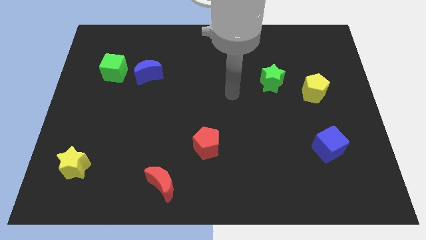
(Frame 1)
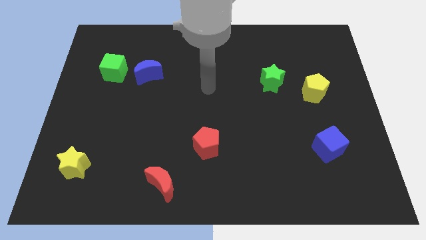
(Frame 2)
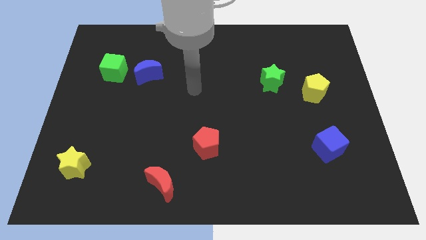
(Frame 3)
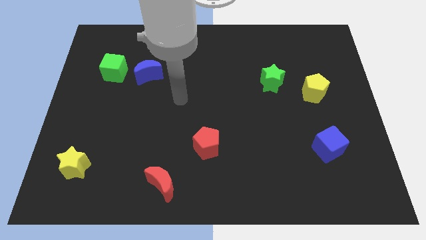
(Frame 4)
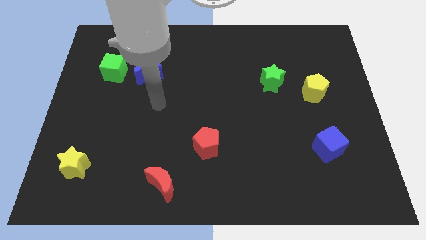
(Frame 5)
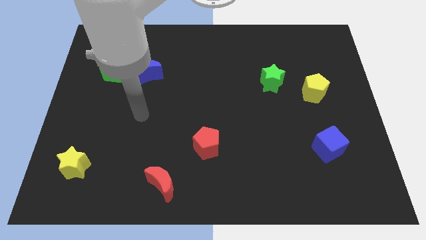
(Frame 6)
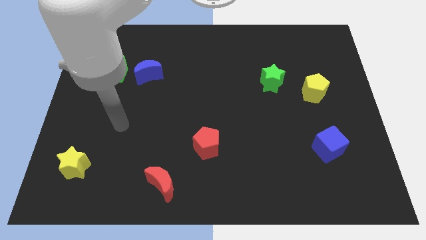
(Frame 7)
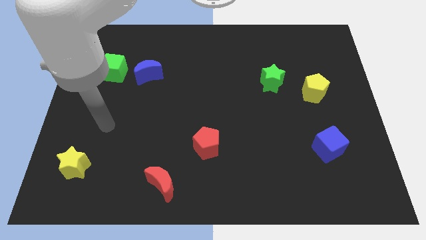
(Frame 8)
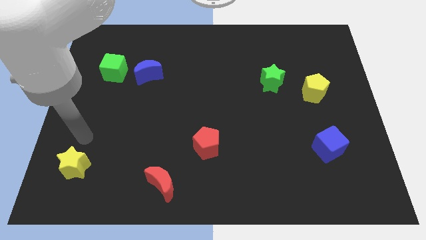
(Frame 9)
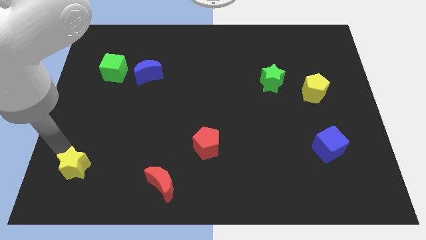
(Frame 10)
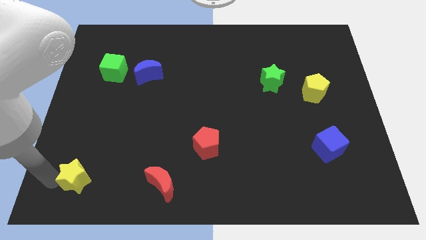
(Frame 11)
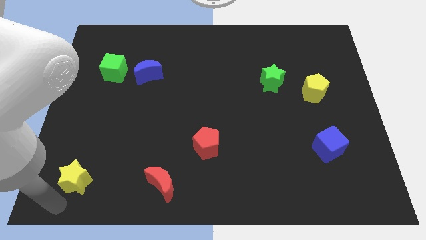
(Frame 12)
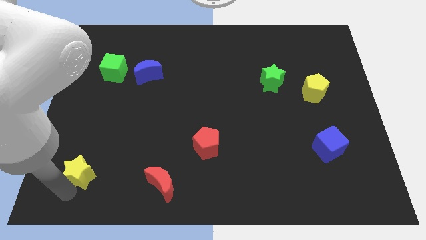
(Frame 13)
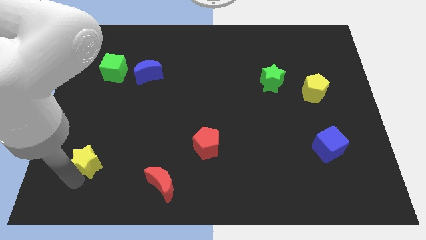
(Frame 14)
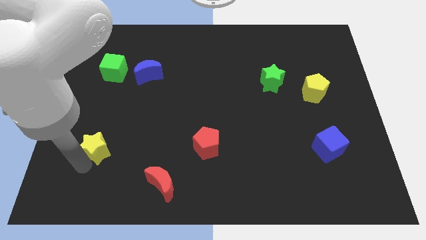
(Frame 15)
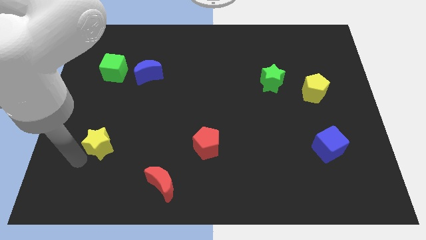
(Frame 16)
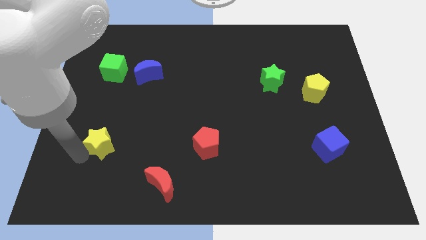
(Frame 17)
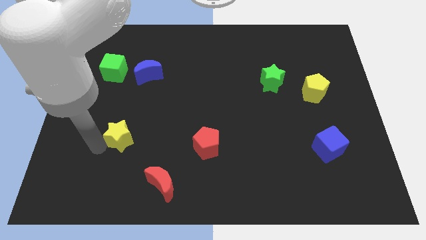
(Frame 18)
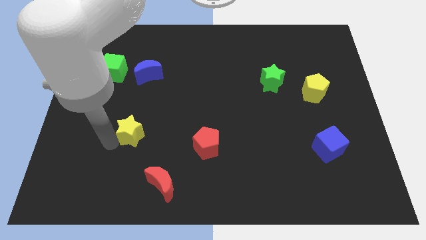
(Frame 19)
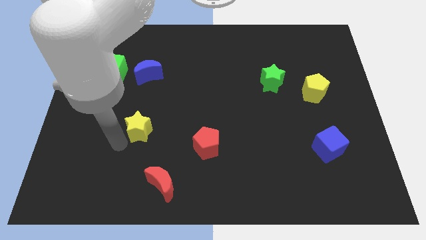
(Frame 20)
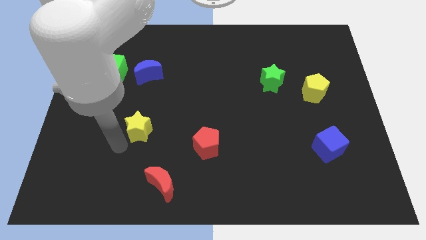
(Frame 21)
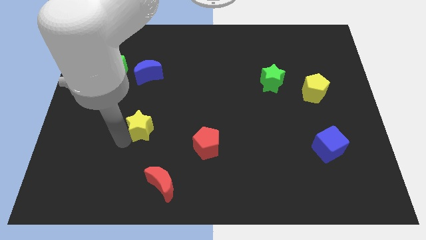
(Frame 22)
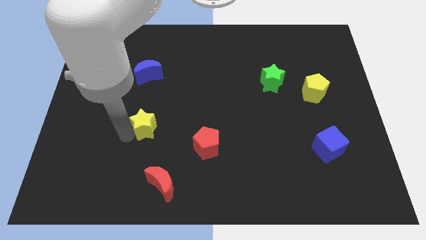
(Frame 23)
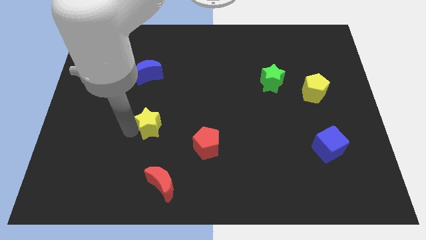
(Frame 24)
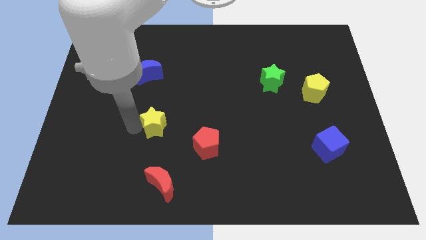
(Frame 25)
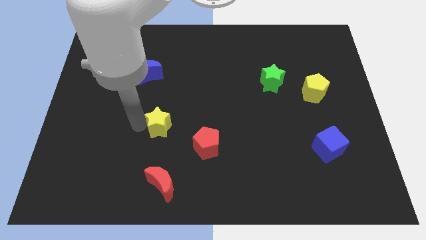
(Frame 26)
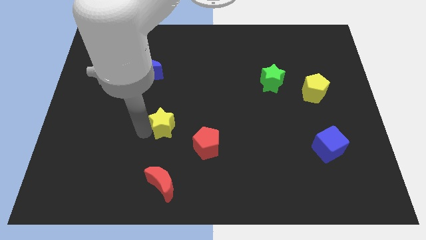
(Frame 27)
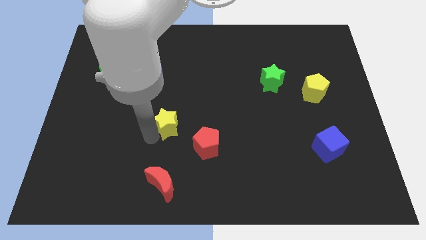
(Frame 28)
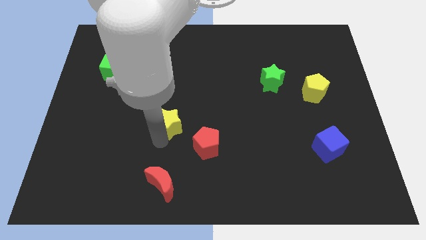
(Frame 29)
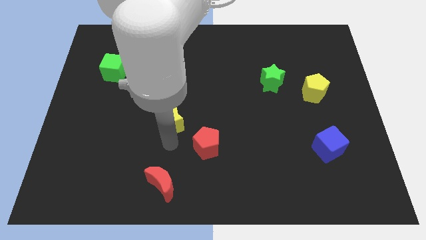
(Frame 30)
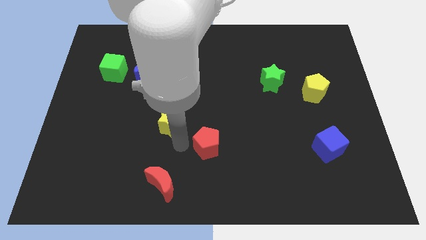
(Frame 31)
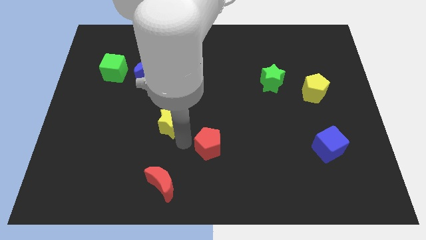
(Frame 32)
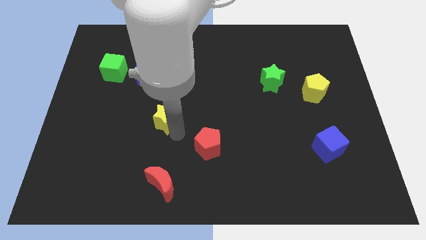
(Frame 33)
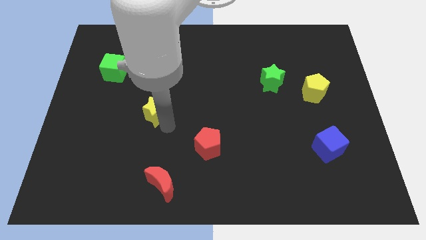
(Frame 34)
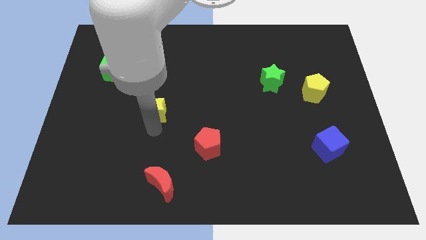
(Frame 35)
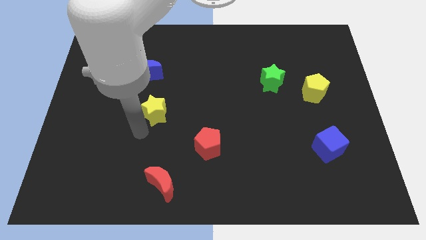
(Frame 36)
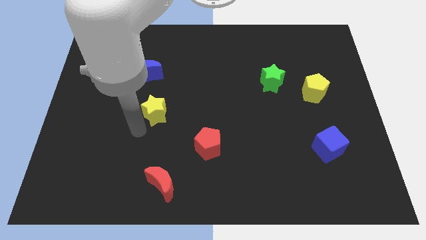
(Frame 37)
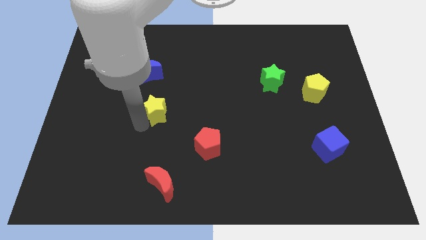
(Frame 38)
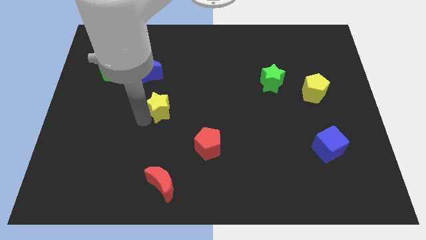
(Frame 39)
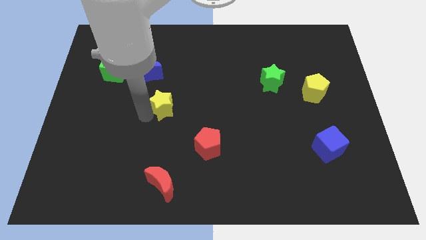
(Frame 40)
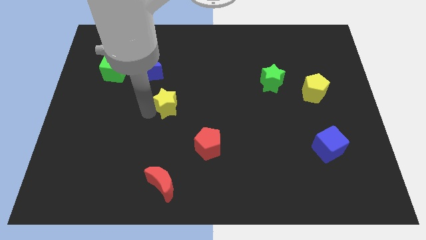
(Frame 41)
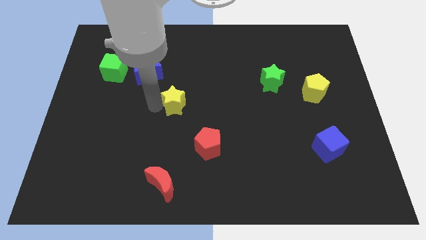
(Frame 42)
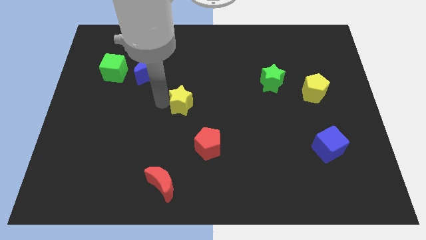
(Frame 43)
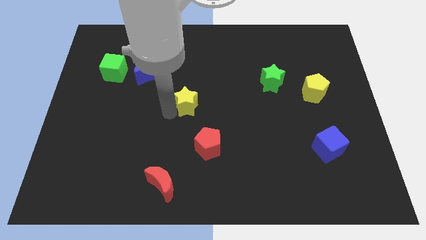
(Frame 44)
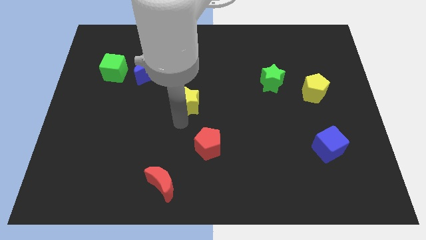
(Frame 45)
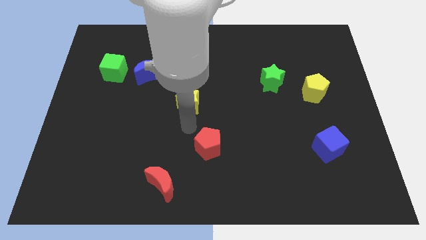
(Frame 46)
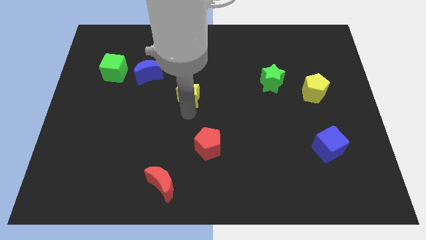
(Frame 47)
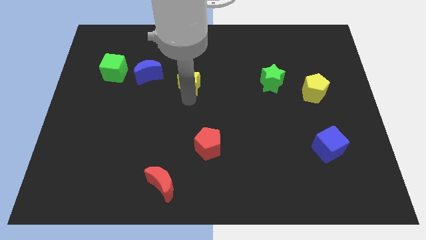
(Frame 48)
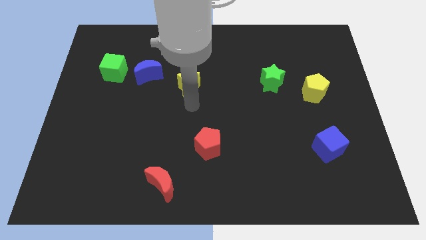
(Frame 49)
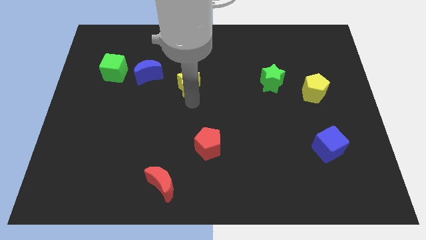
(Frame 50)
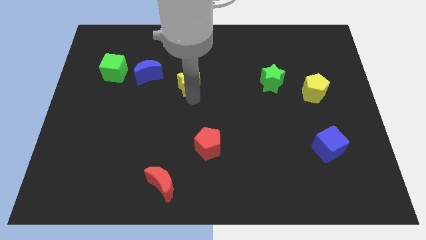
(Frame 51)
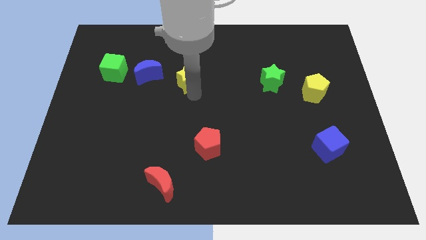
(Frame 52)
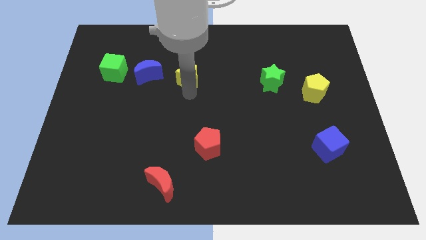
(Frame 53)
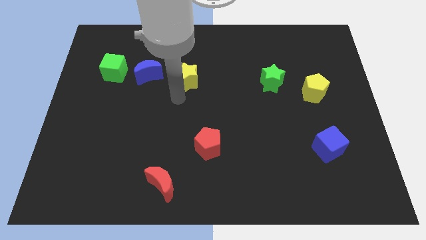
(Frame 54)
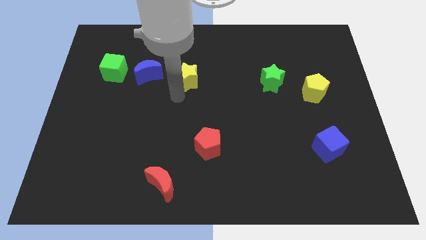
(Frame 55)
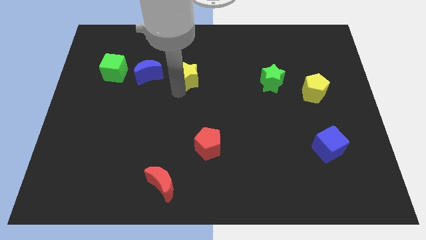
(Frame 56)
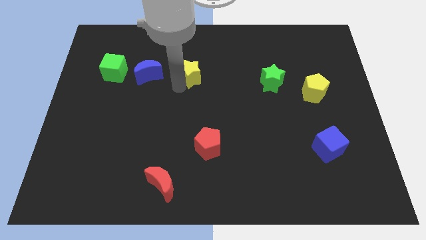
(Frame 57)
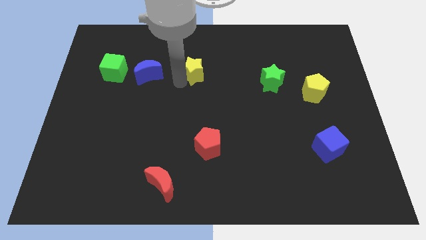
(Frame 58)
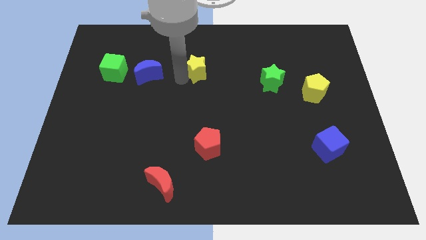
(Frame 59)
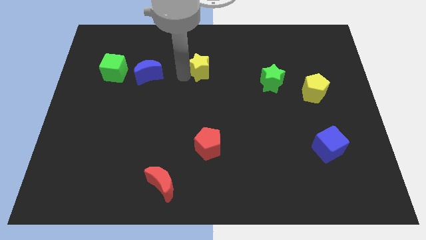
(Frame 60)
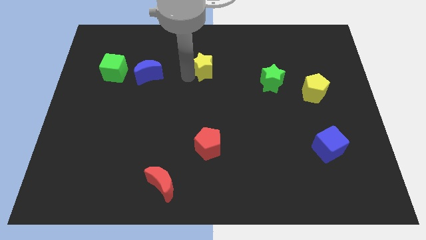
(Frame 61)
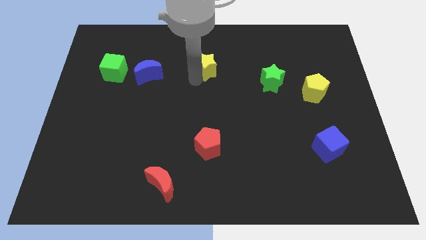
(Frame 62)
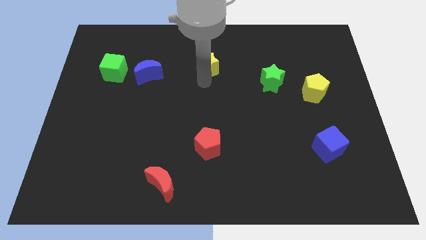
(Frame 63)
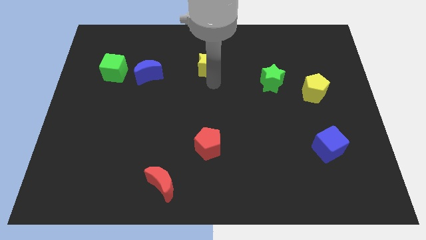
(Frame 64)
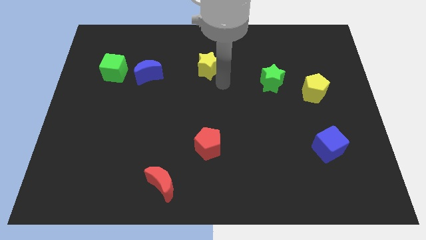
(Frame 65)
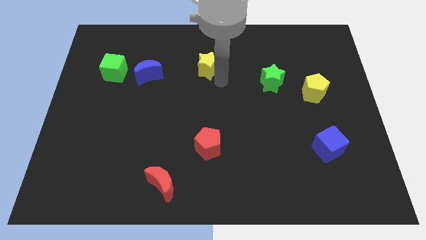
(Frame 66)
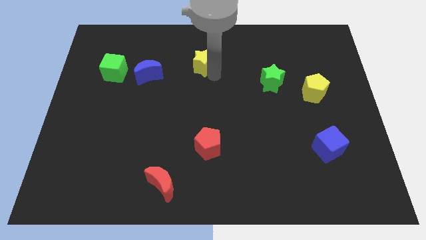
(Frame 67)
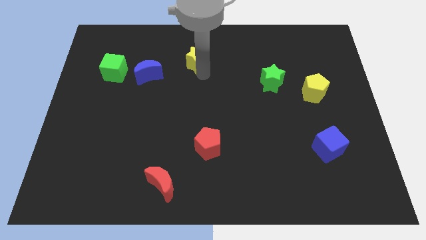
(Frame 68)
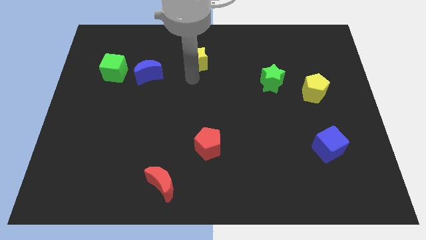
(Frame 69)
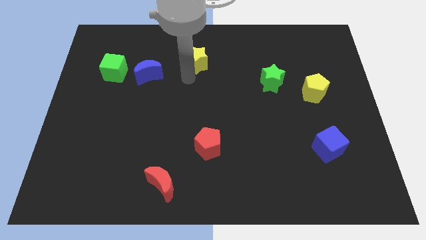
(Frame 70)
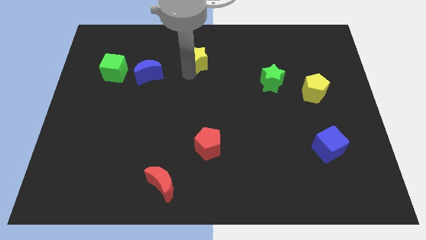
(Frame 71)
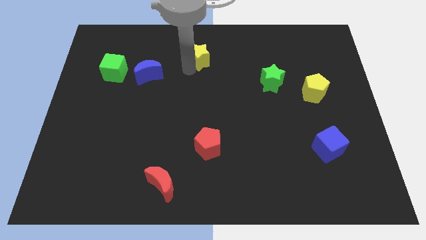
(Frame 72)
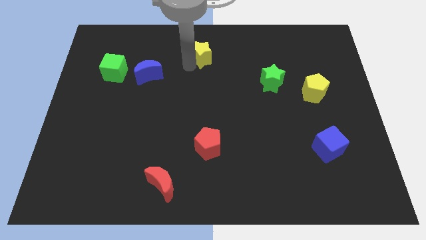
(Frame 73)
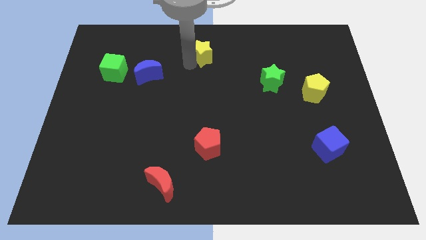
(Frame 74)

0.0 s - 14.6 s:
put the yellow star to the top
